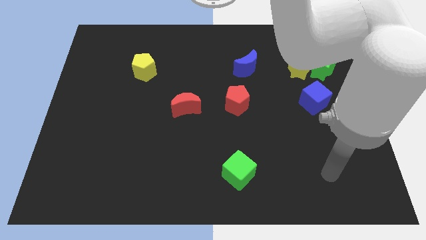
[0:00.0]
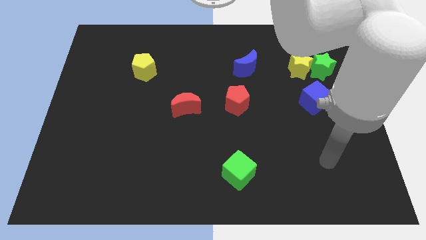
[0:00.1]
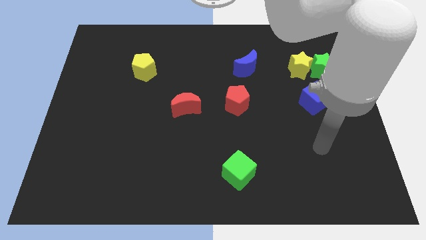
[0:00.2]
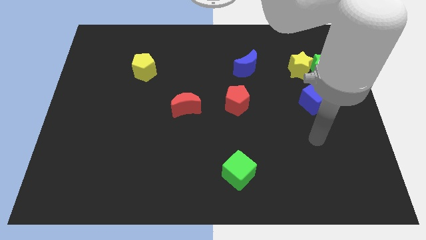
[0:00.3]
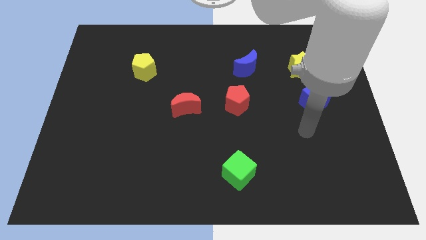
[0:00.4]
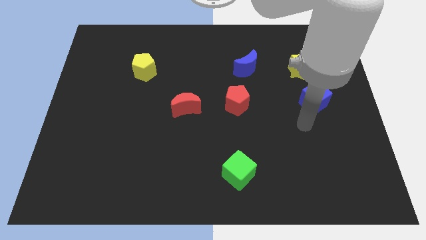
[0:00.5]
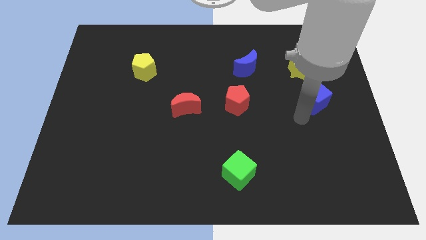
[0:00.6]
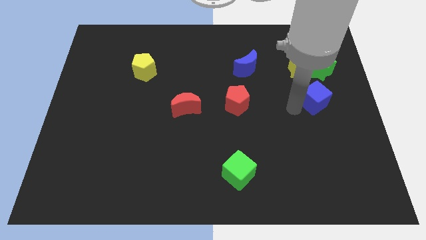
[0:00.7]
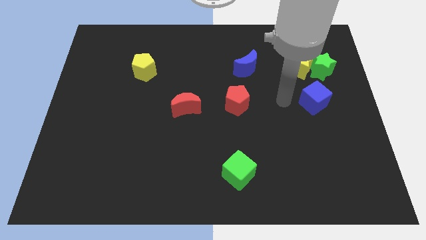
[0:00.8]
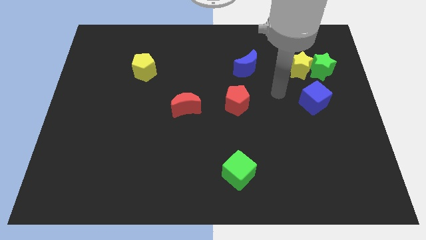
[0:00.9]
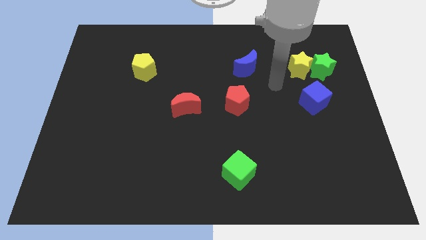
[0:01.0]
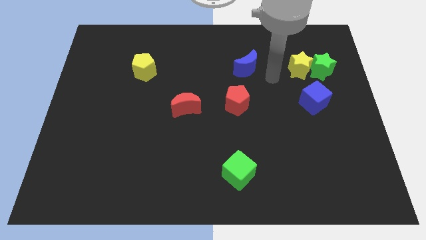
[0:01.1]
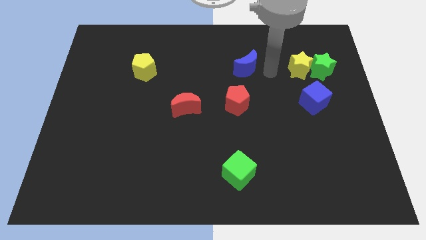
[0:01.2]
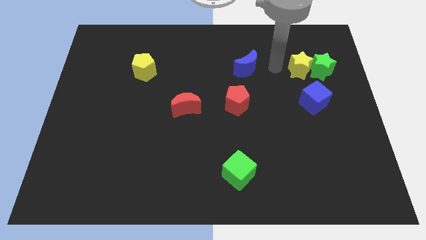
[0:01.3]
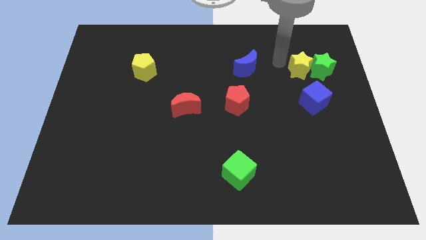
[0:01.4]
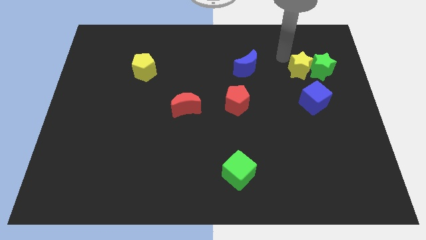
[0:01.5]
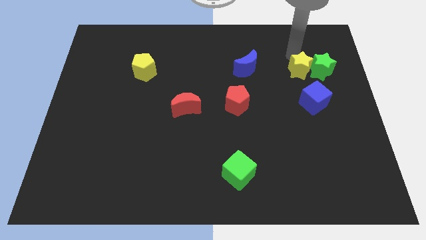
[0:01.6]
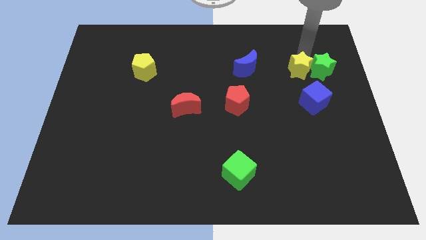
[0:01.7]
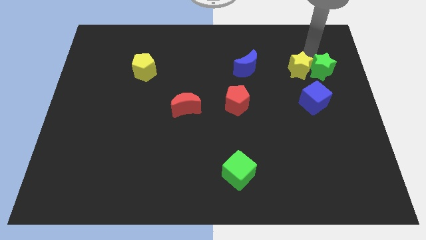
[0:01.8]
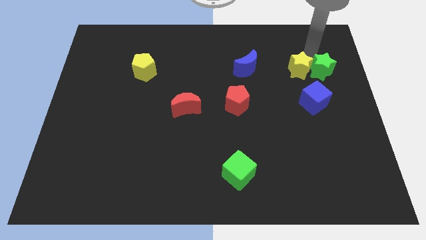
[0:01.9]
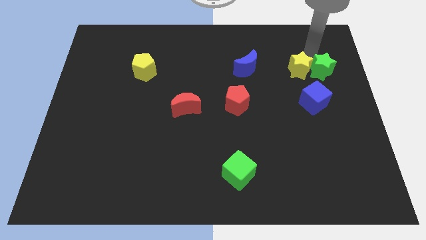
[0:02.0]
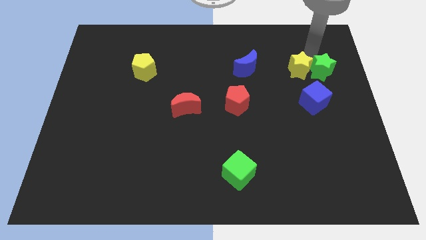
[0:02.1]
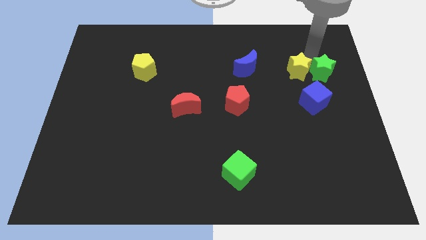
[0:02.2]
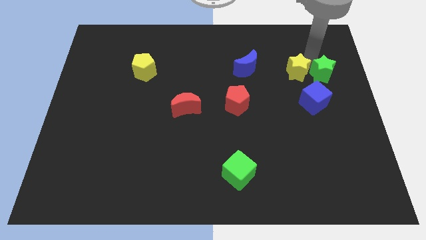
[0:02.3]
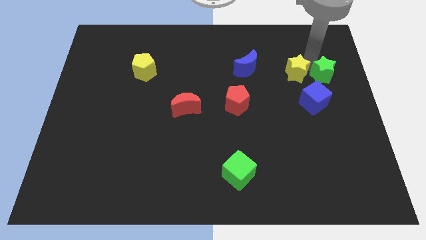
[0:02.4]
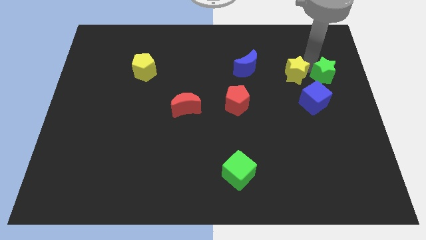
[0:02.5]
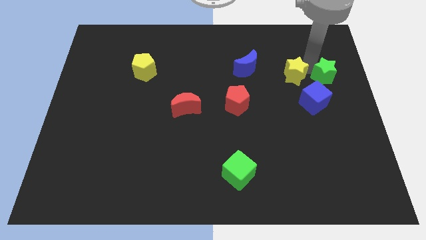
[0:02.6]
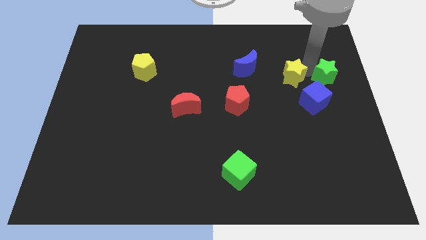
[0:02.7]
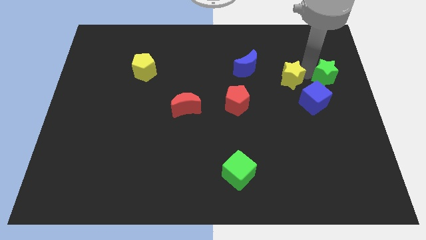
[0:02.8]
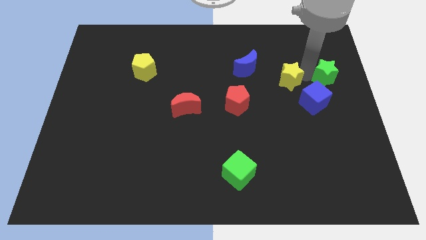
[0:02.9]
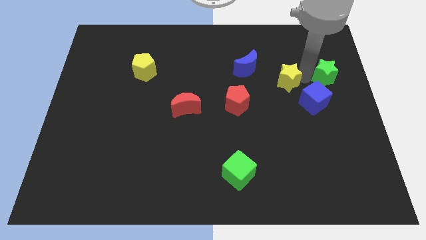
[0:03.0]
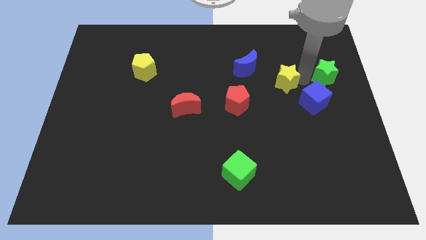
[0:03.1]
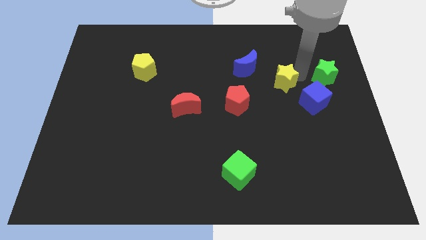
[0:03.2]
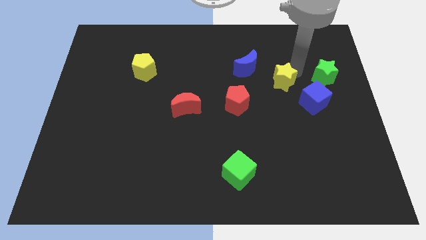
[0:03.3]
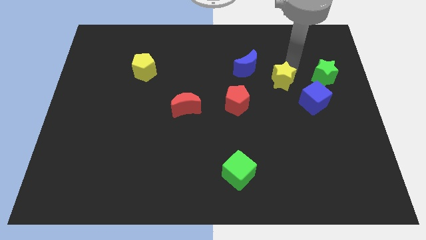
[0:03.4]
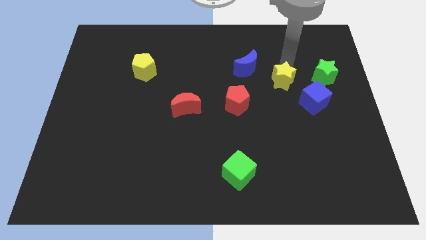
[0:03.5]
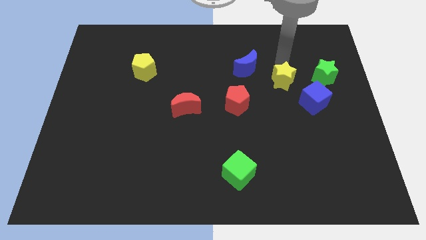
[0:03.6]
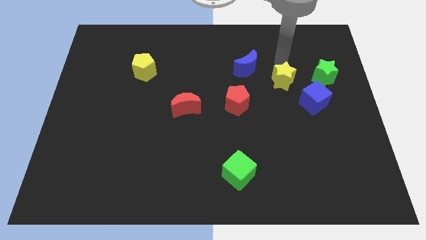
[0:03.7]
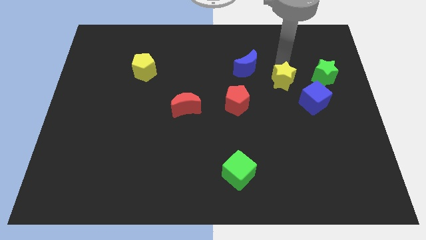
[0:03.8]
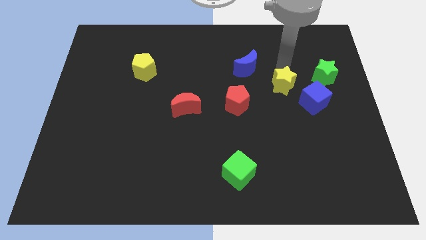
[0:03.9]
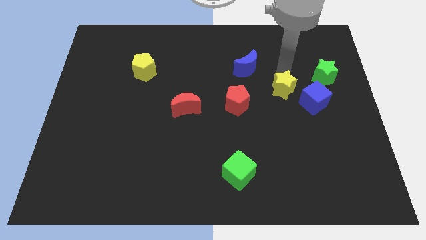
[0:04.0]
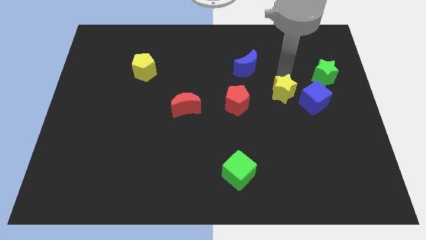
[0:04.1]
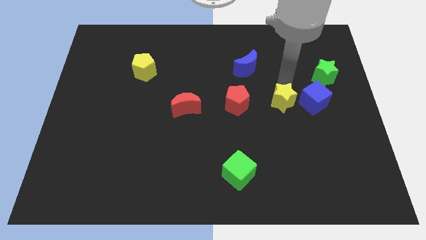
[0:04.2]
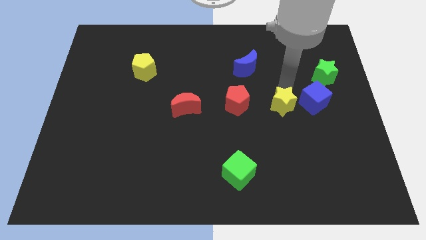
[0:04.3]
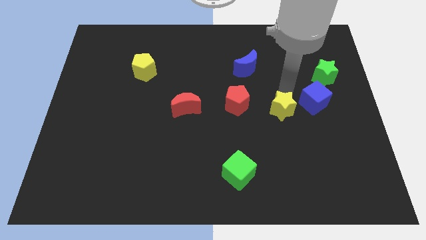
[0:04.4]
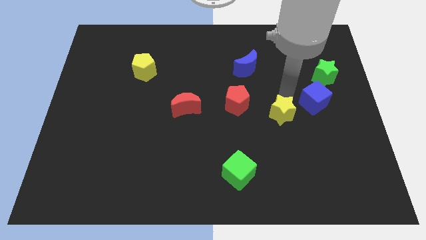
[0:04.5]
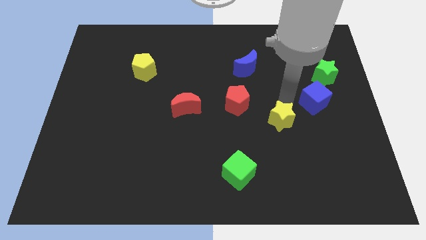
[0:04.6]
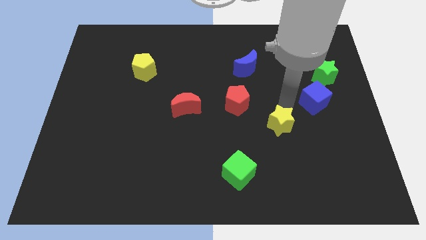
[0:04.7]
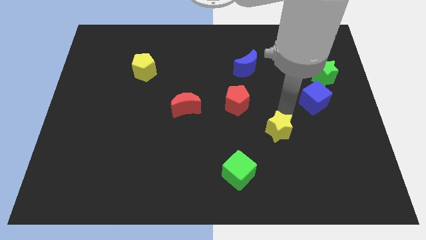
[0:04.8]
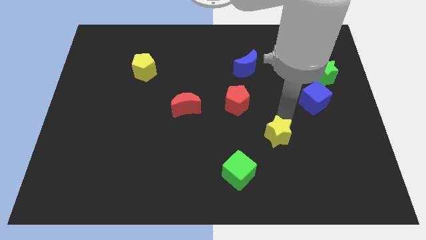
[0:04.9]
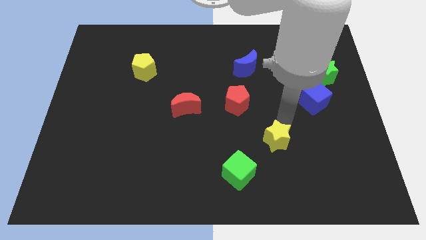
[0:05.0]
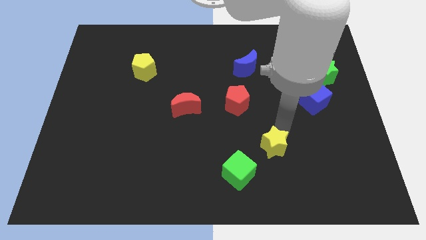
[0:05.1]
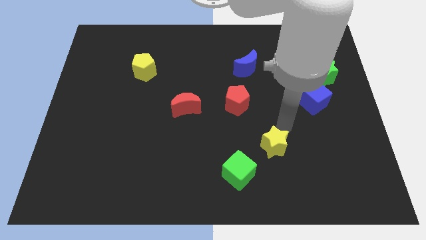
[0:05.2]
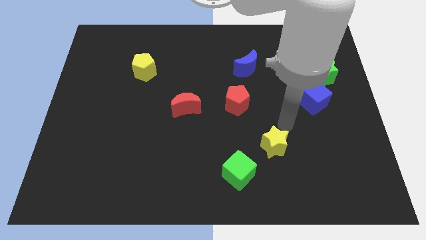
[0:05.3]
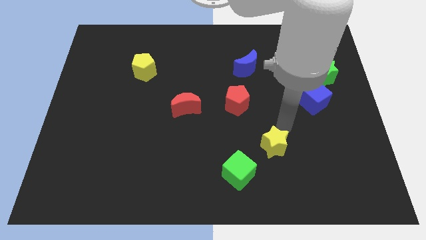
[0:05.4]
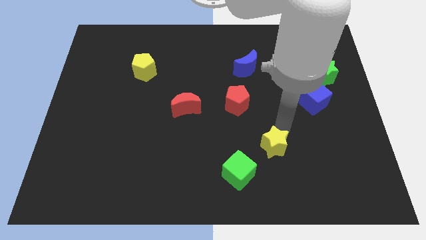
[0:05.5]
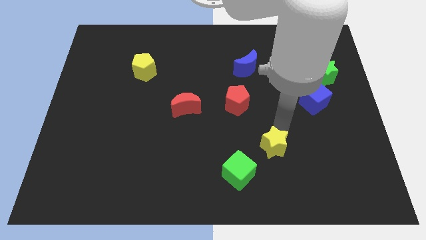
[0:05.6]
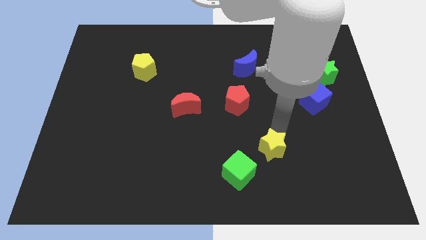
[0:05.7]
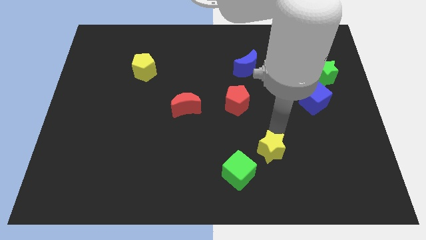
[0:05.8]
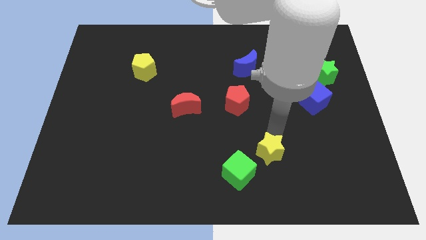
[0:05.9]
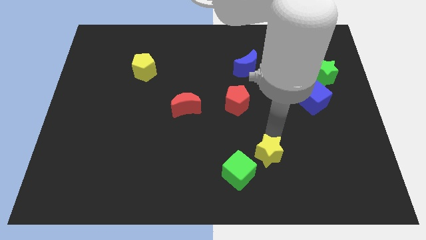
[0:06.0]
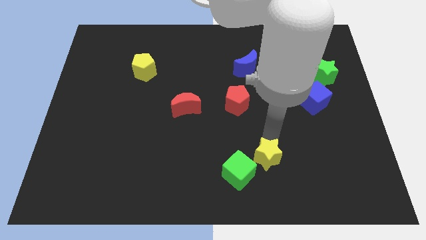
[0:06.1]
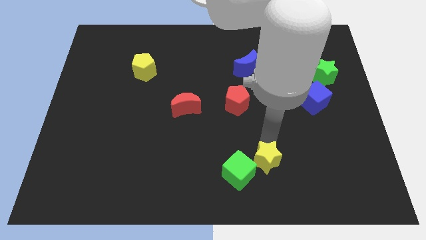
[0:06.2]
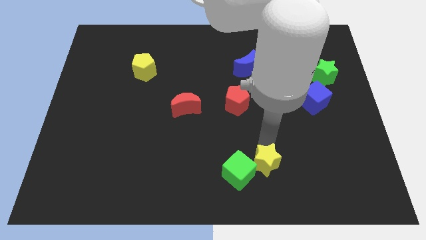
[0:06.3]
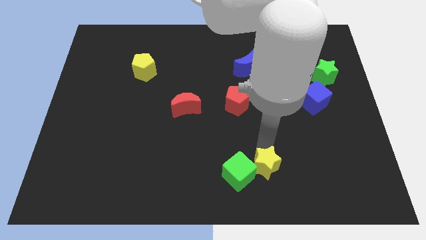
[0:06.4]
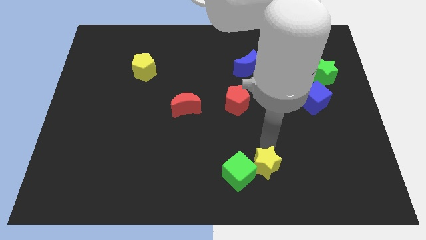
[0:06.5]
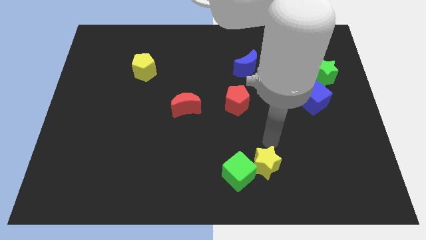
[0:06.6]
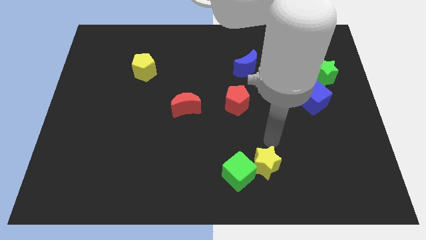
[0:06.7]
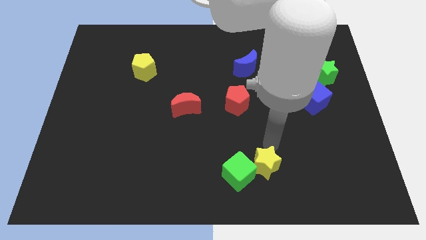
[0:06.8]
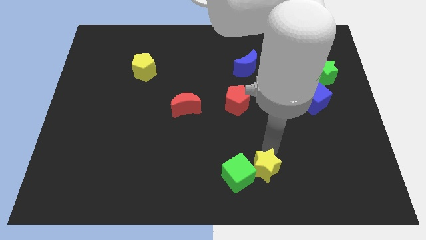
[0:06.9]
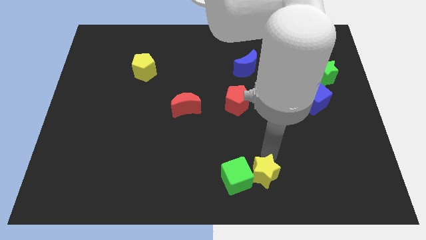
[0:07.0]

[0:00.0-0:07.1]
slide the yellow star to the bottom
